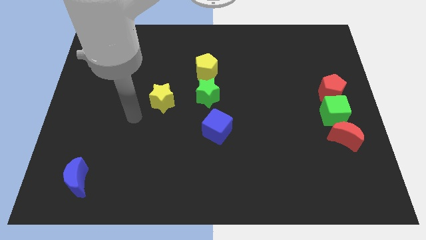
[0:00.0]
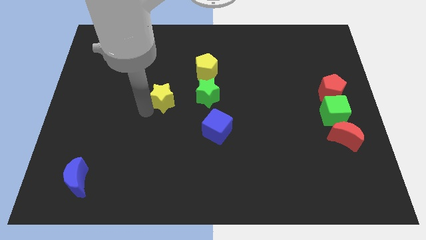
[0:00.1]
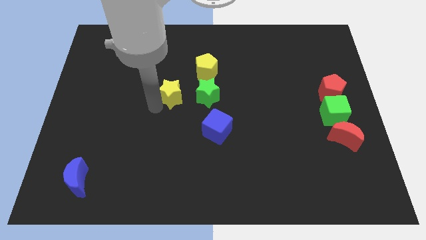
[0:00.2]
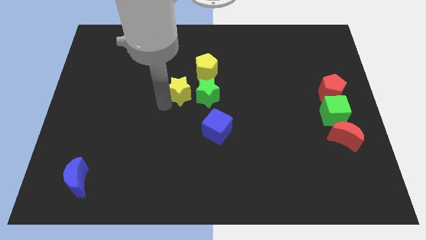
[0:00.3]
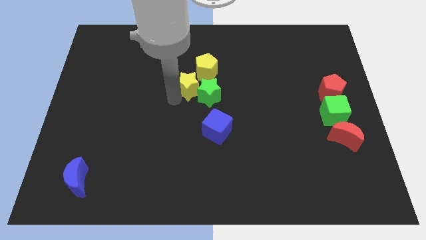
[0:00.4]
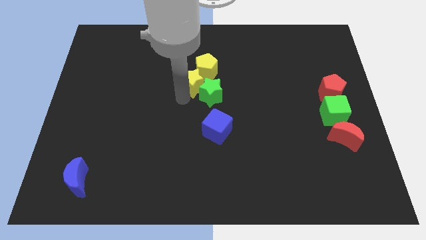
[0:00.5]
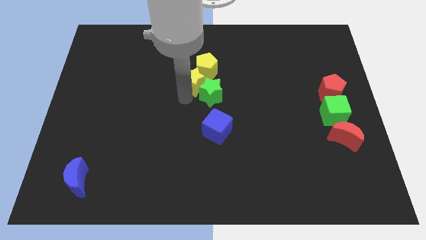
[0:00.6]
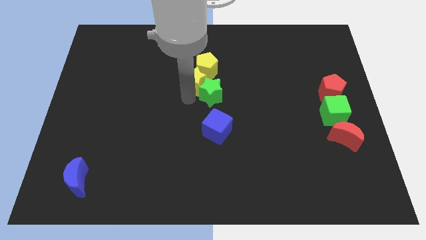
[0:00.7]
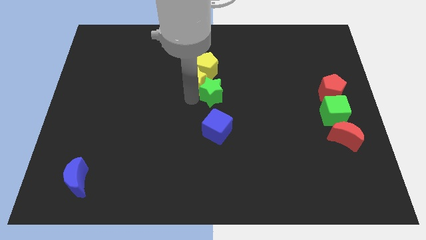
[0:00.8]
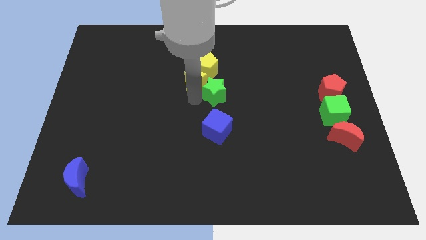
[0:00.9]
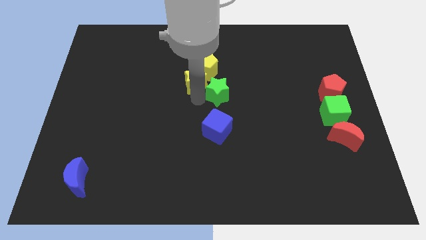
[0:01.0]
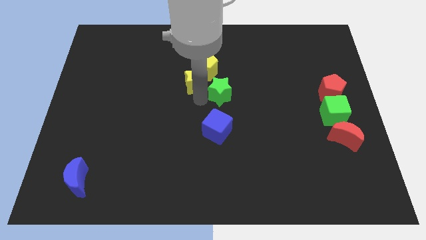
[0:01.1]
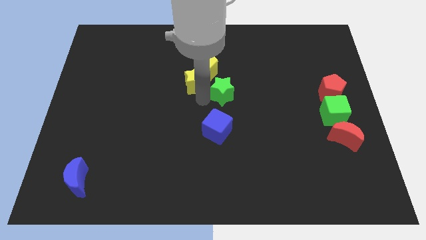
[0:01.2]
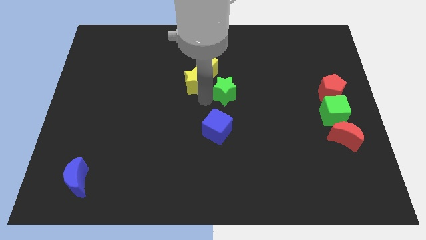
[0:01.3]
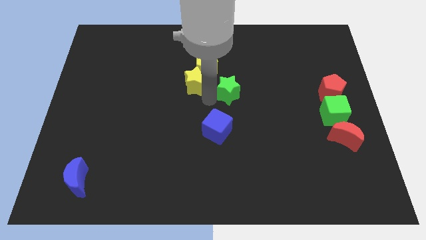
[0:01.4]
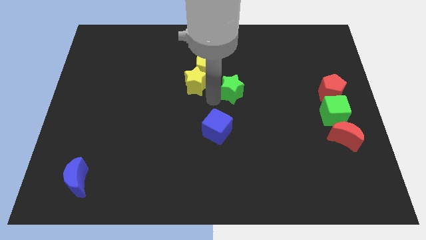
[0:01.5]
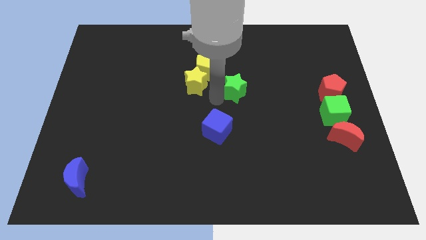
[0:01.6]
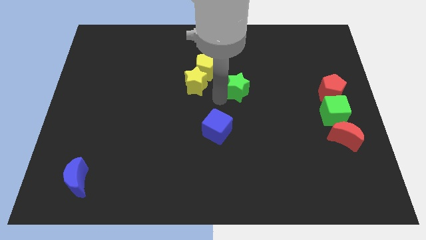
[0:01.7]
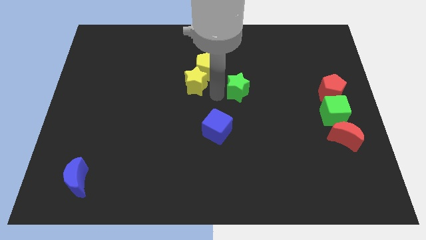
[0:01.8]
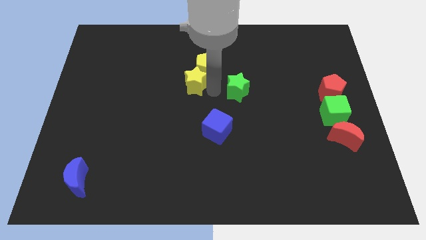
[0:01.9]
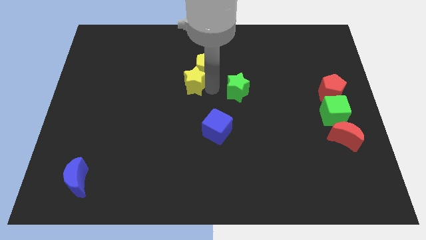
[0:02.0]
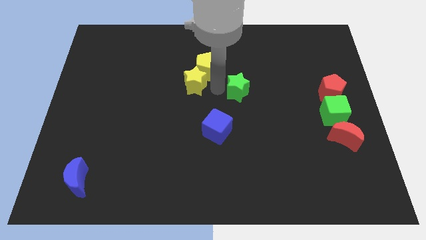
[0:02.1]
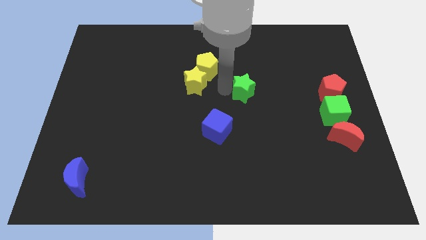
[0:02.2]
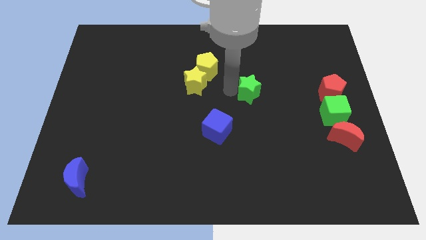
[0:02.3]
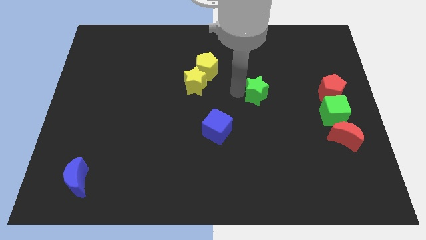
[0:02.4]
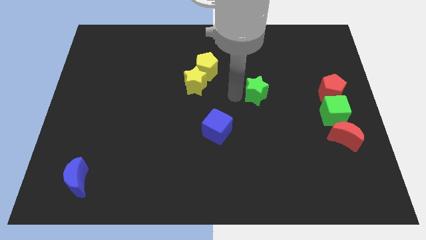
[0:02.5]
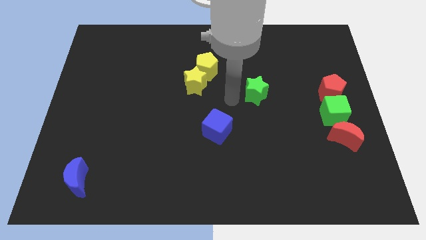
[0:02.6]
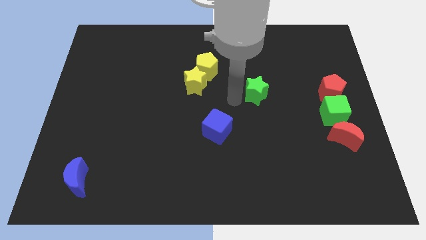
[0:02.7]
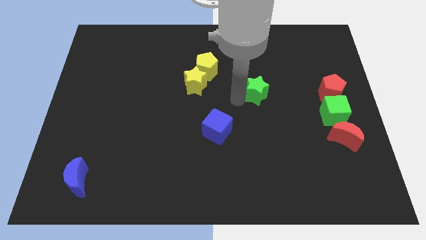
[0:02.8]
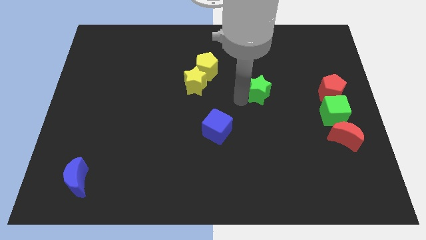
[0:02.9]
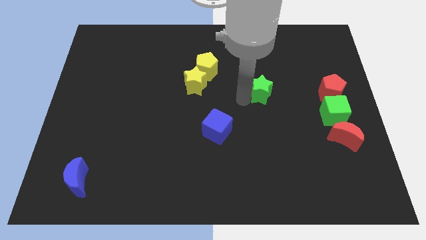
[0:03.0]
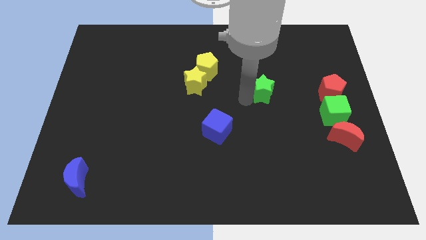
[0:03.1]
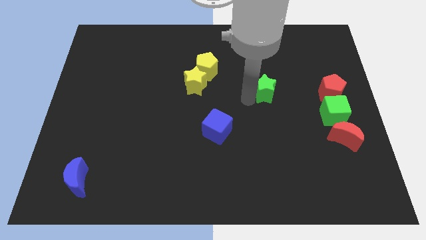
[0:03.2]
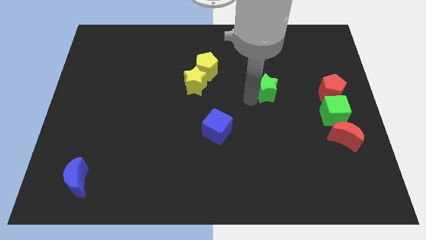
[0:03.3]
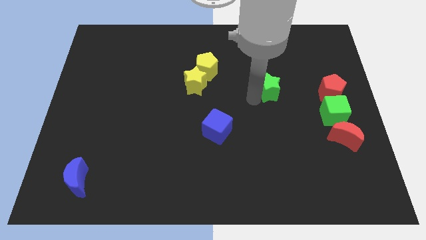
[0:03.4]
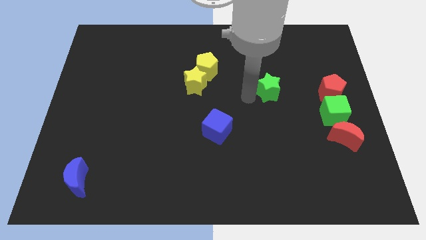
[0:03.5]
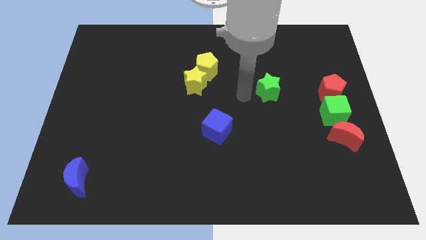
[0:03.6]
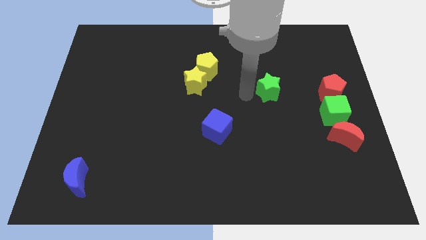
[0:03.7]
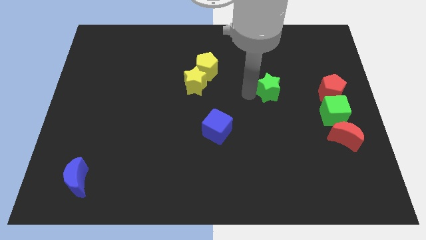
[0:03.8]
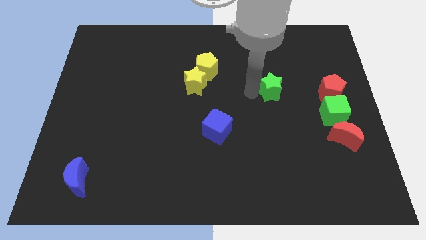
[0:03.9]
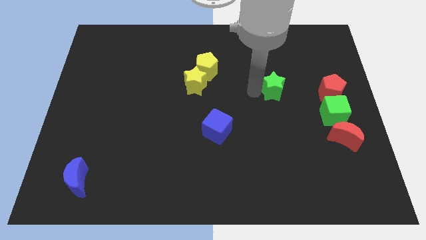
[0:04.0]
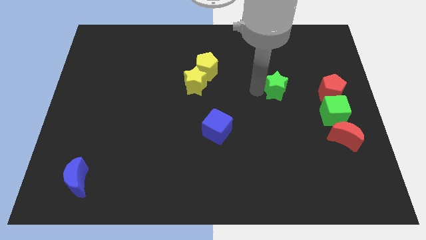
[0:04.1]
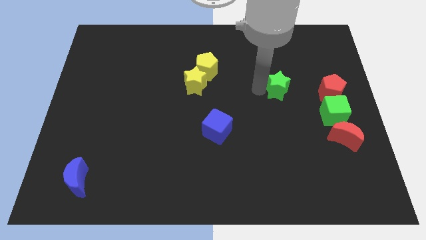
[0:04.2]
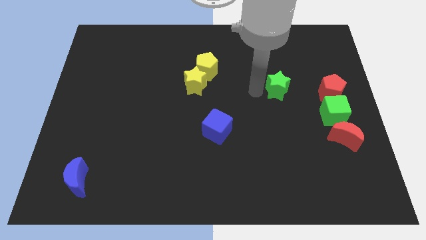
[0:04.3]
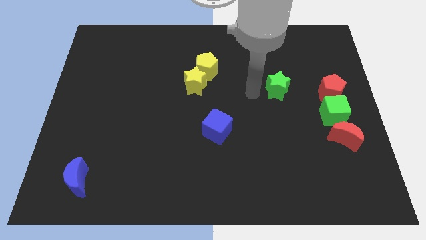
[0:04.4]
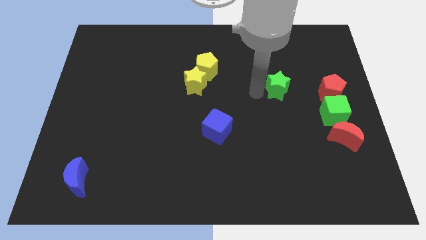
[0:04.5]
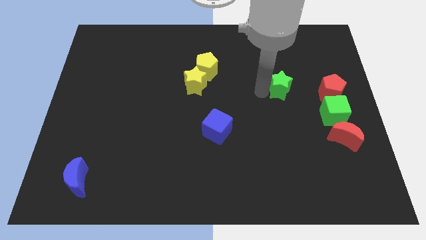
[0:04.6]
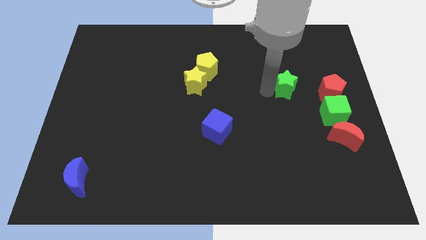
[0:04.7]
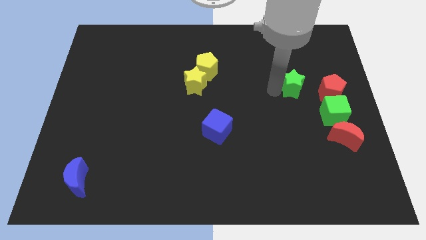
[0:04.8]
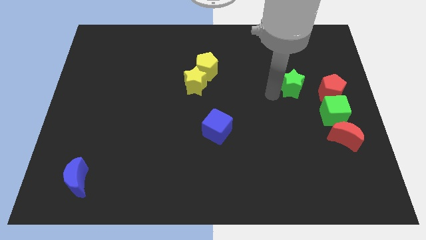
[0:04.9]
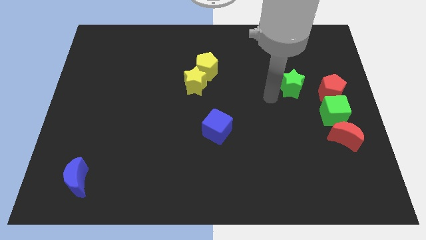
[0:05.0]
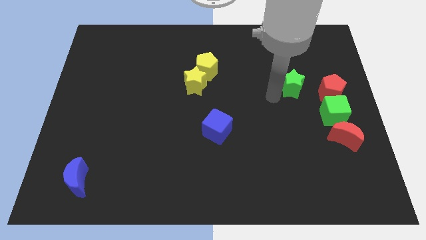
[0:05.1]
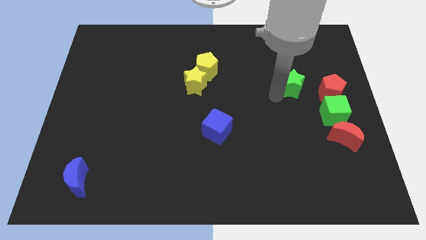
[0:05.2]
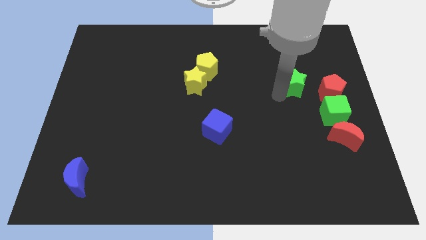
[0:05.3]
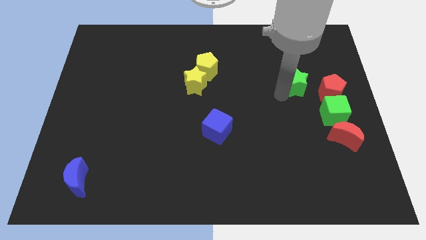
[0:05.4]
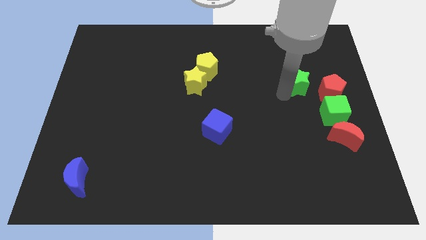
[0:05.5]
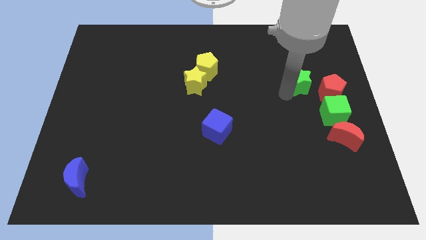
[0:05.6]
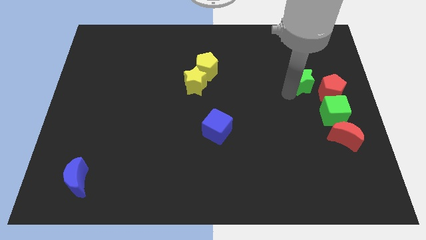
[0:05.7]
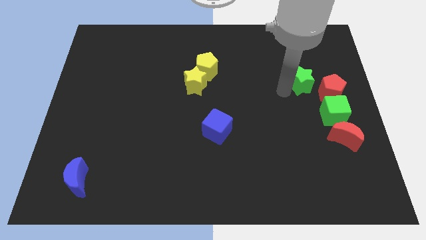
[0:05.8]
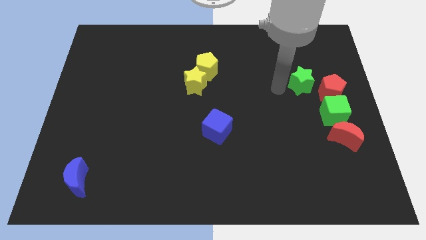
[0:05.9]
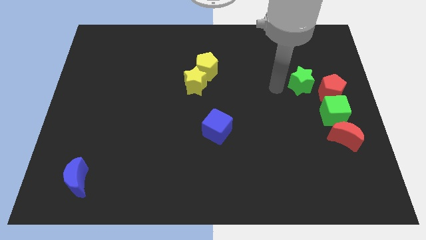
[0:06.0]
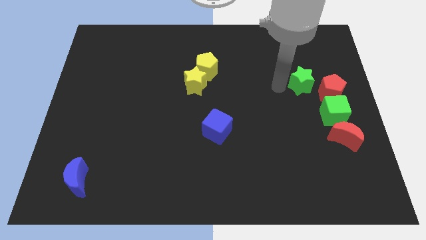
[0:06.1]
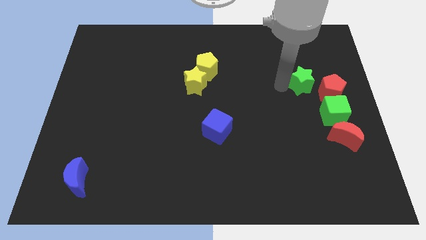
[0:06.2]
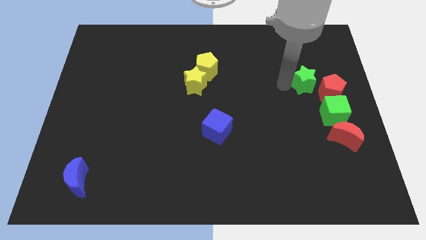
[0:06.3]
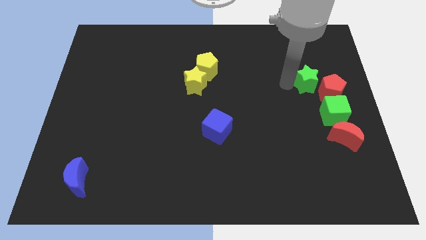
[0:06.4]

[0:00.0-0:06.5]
move the green star to the top side of the green cube
